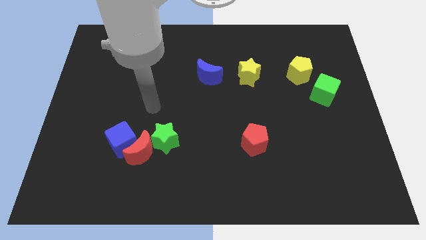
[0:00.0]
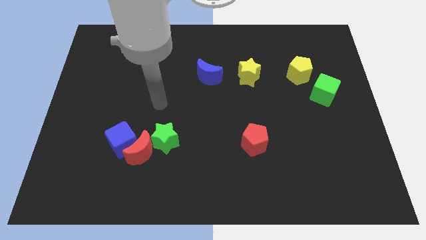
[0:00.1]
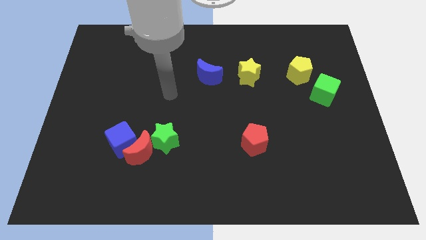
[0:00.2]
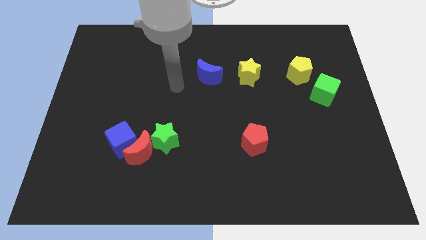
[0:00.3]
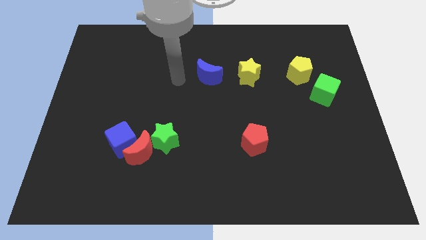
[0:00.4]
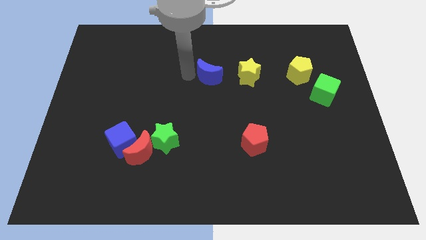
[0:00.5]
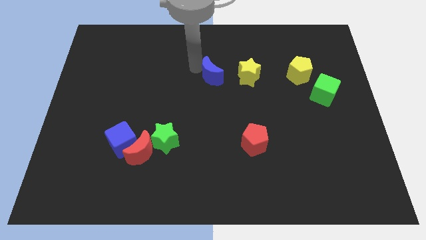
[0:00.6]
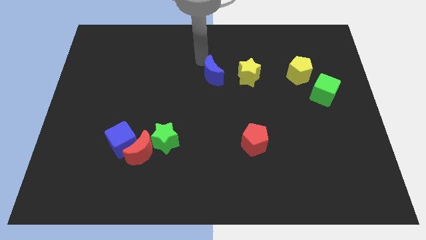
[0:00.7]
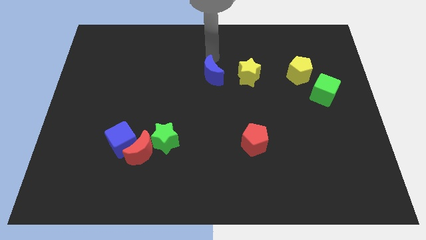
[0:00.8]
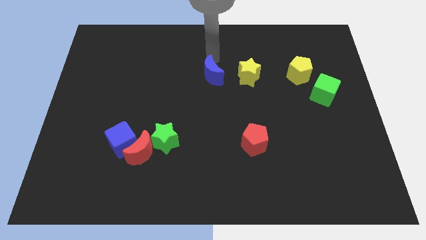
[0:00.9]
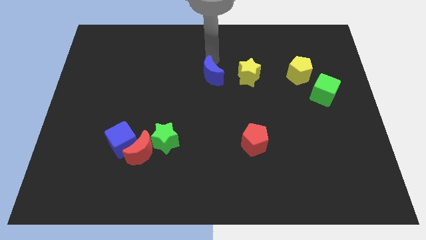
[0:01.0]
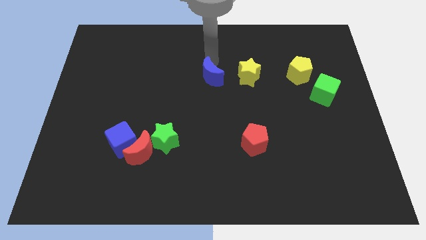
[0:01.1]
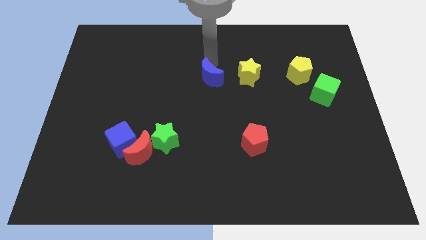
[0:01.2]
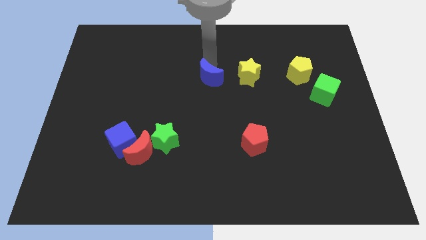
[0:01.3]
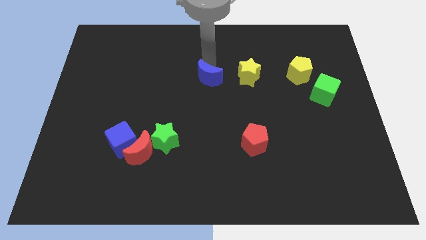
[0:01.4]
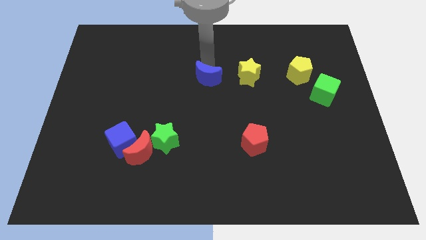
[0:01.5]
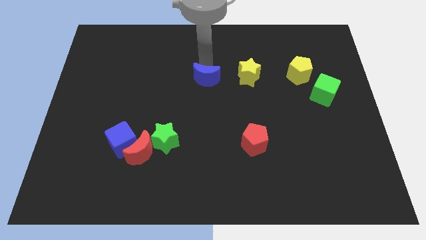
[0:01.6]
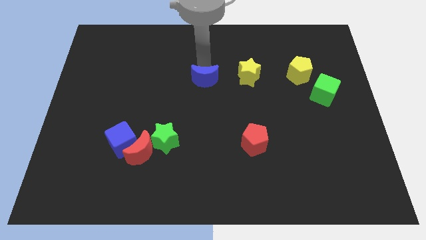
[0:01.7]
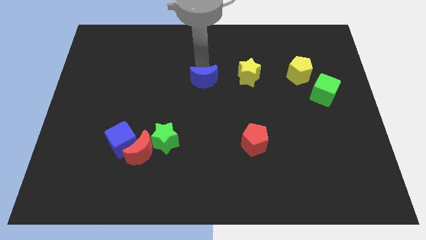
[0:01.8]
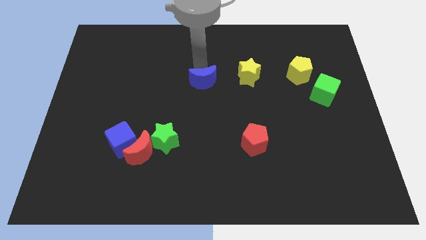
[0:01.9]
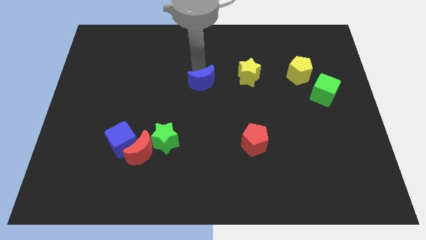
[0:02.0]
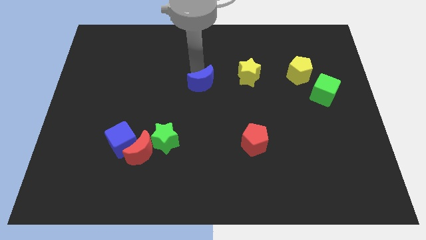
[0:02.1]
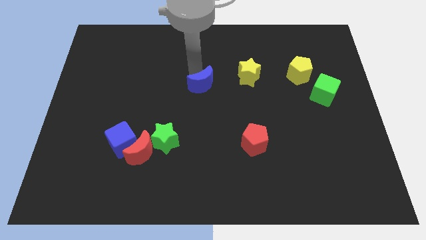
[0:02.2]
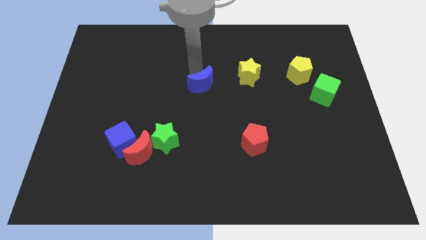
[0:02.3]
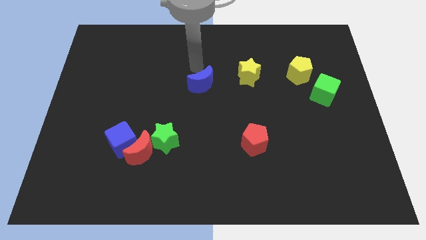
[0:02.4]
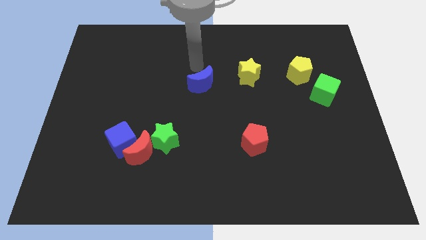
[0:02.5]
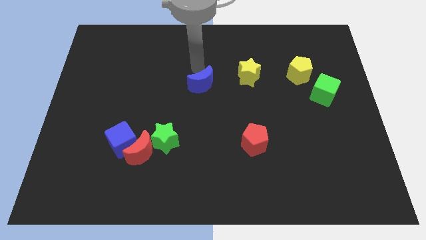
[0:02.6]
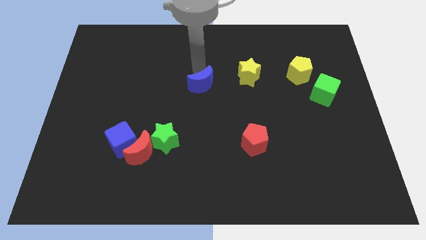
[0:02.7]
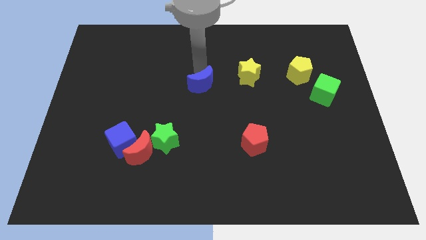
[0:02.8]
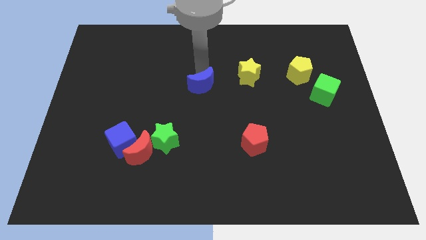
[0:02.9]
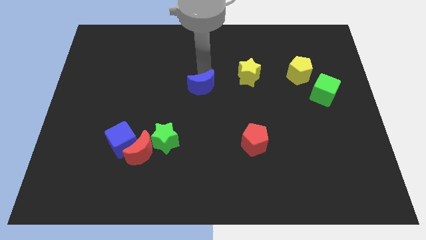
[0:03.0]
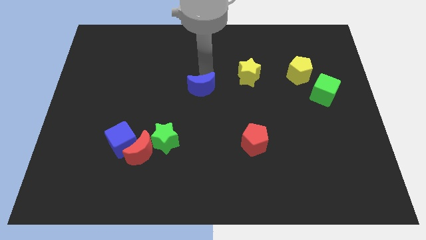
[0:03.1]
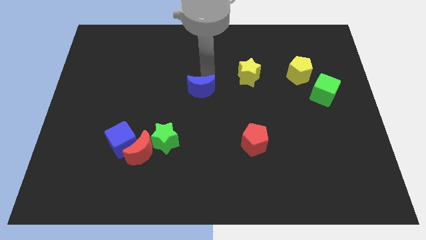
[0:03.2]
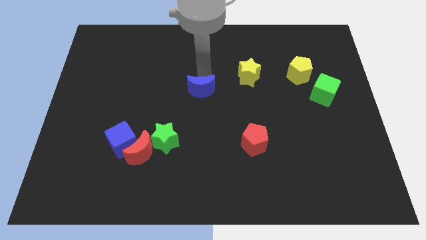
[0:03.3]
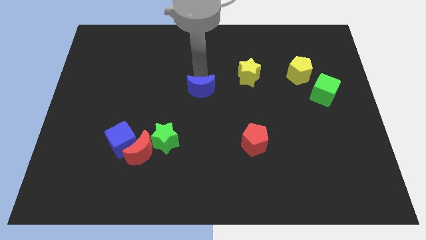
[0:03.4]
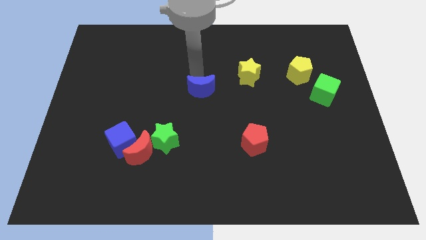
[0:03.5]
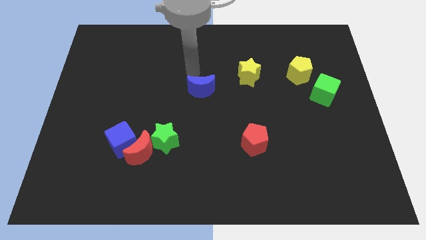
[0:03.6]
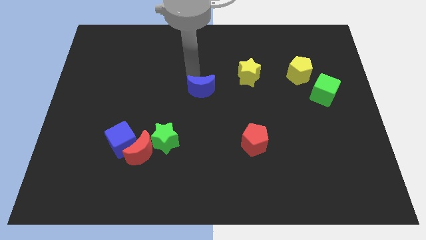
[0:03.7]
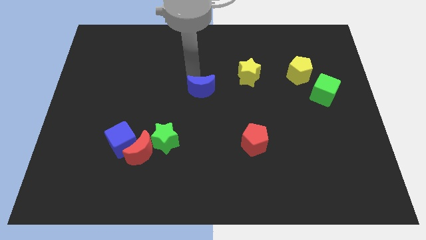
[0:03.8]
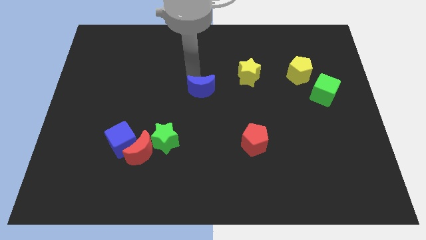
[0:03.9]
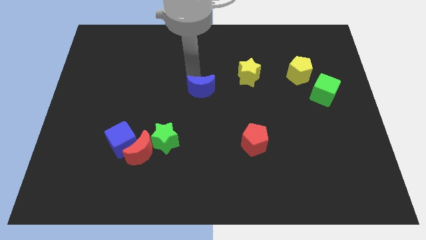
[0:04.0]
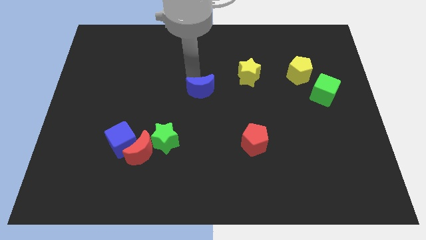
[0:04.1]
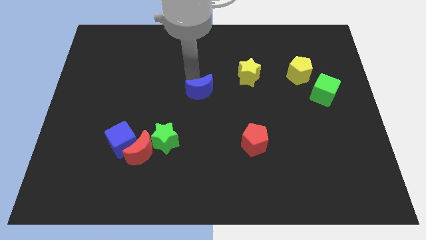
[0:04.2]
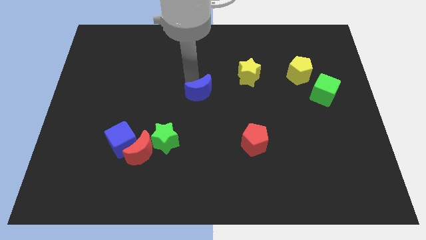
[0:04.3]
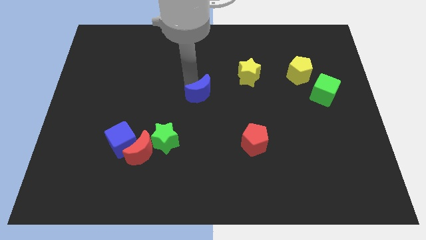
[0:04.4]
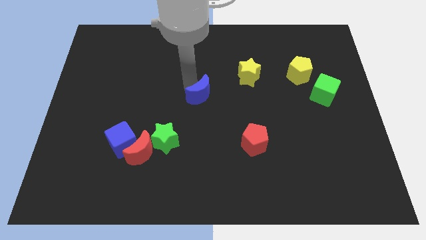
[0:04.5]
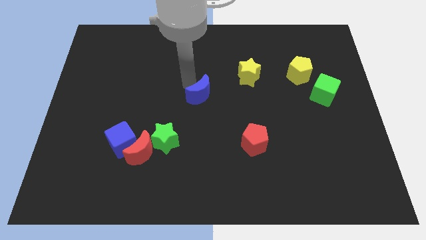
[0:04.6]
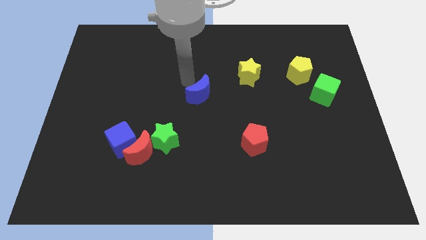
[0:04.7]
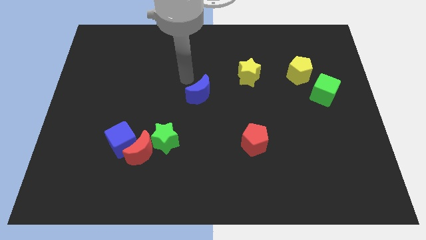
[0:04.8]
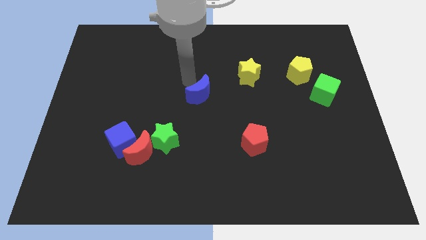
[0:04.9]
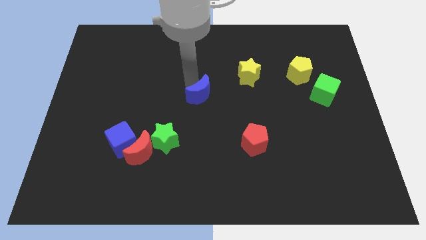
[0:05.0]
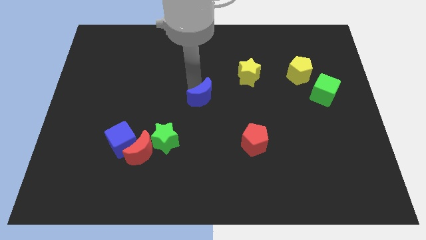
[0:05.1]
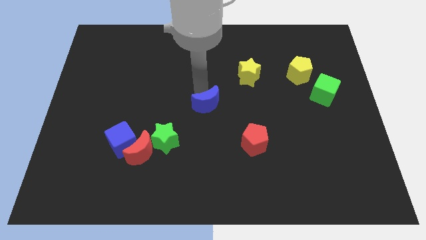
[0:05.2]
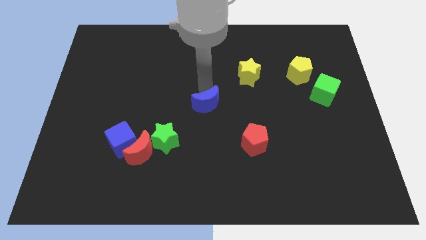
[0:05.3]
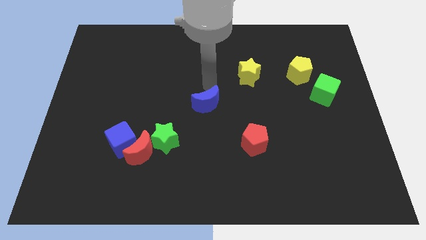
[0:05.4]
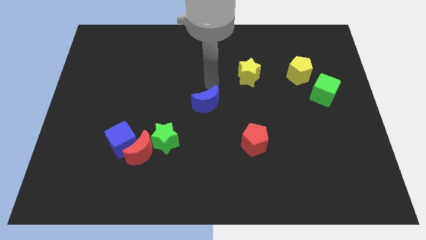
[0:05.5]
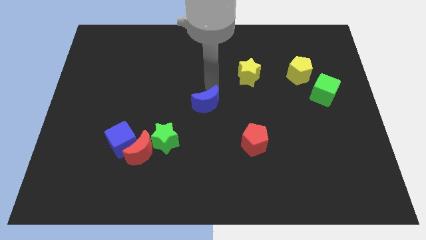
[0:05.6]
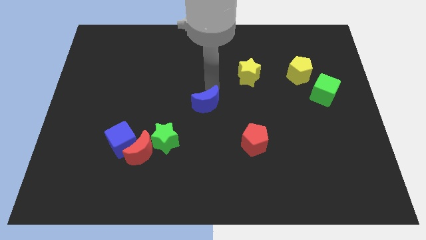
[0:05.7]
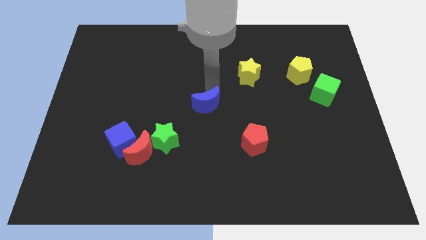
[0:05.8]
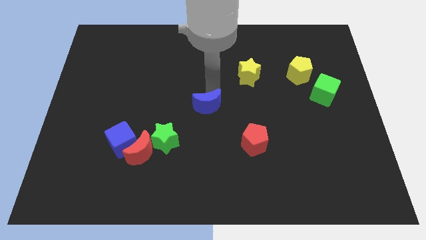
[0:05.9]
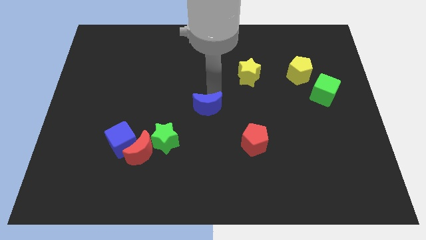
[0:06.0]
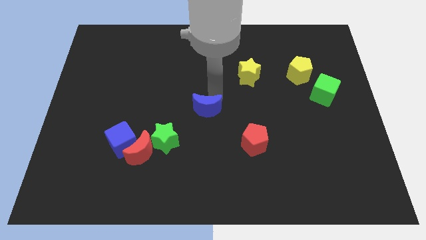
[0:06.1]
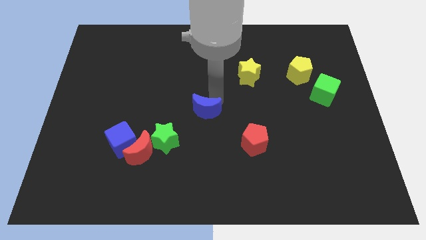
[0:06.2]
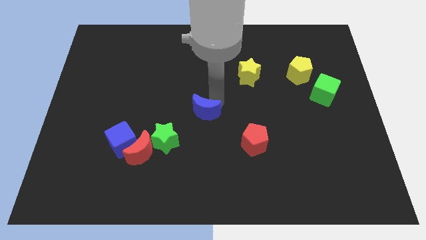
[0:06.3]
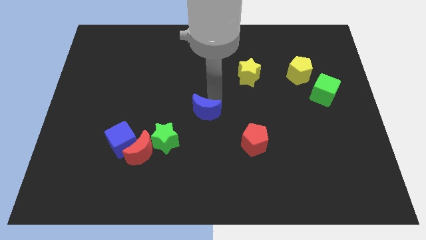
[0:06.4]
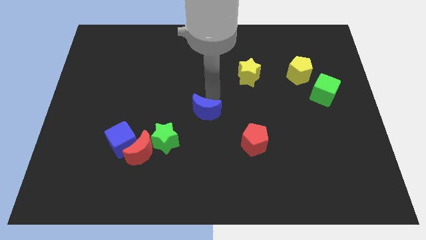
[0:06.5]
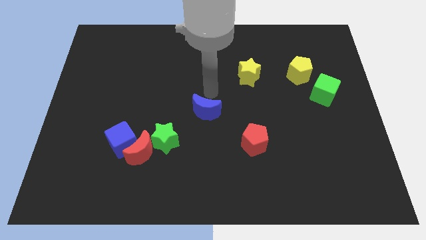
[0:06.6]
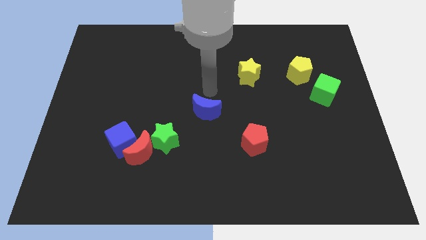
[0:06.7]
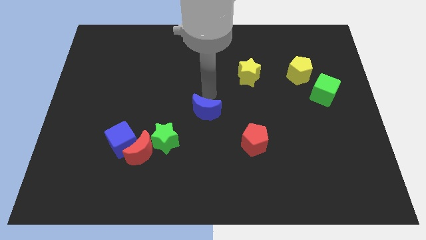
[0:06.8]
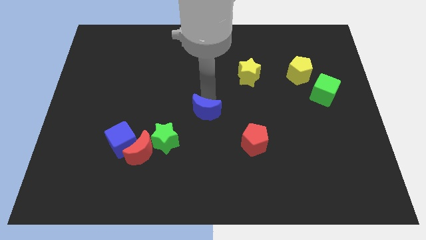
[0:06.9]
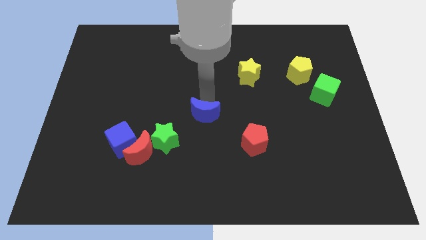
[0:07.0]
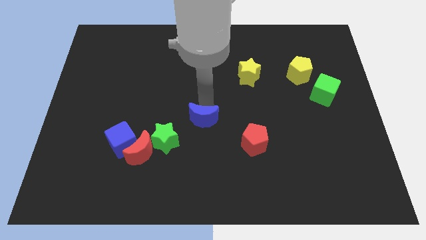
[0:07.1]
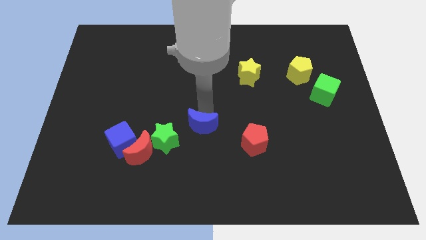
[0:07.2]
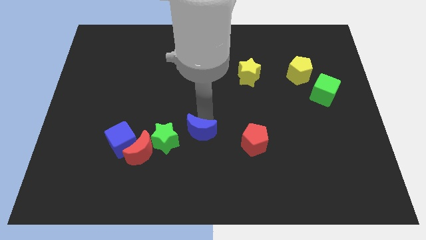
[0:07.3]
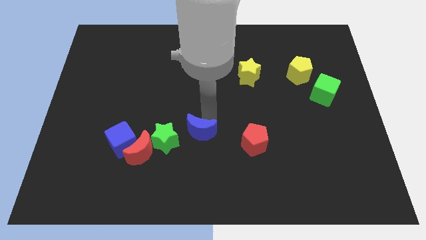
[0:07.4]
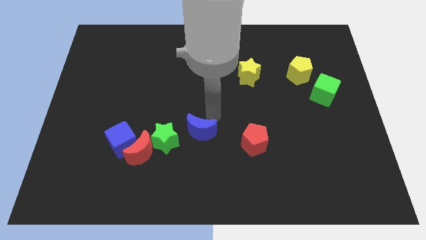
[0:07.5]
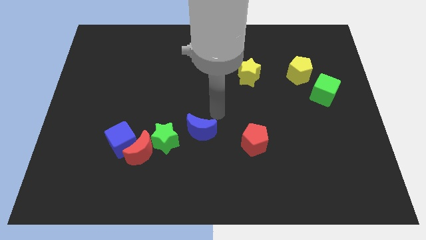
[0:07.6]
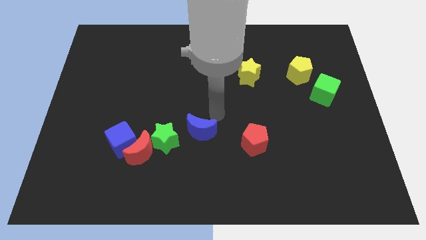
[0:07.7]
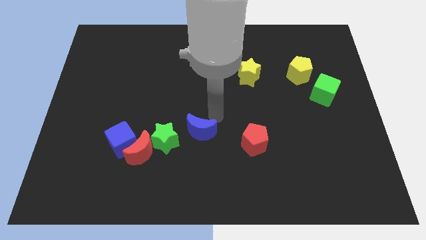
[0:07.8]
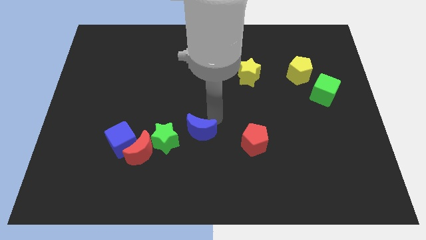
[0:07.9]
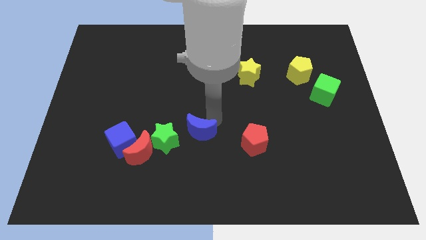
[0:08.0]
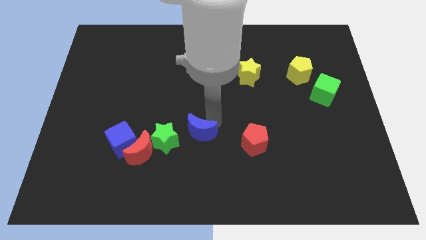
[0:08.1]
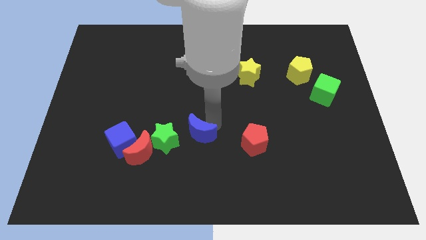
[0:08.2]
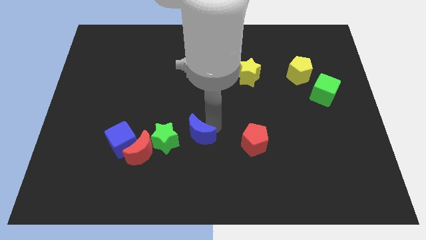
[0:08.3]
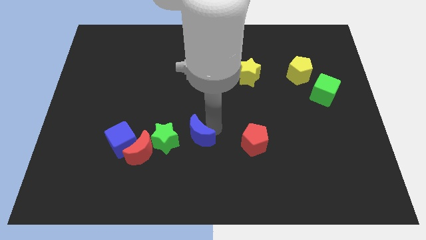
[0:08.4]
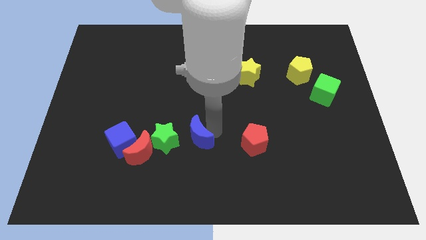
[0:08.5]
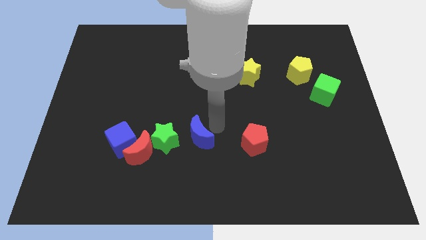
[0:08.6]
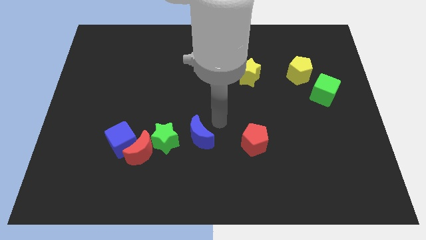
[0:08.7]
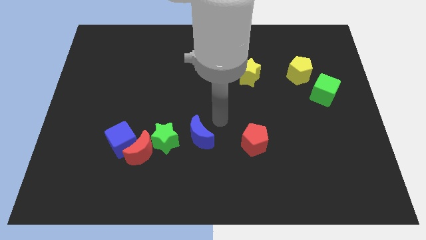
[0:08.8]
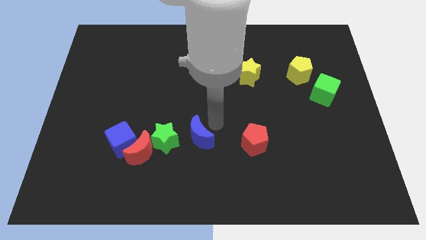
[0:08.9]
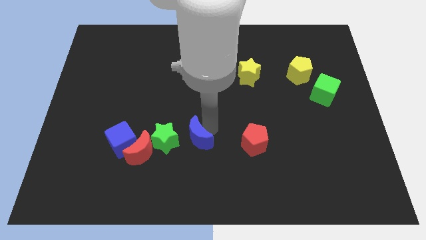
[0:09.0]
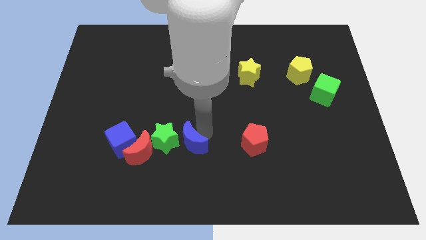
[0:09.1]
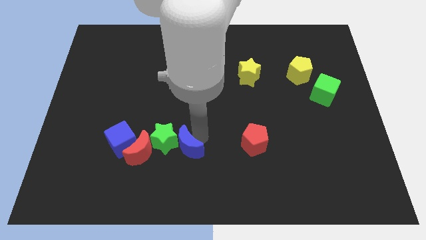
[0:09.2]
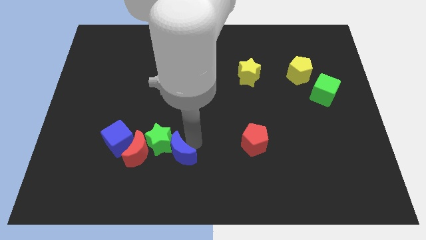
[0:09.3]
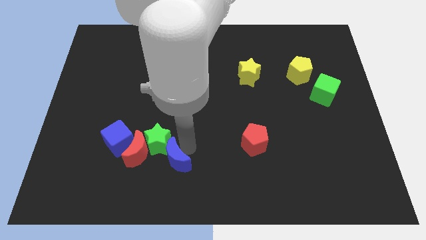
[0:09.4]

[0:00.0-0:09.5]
slide the blue moon to the bottom right of the red moon
